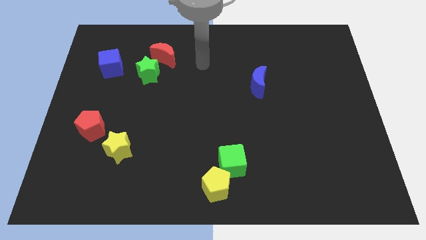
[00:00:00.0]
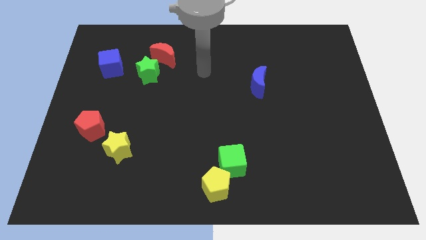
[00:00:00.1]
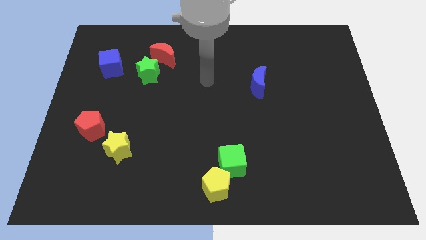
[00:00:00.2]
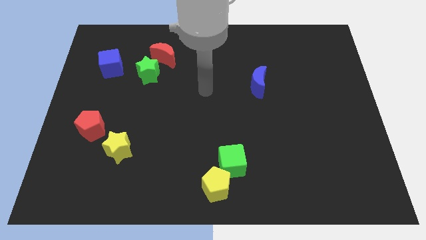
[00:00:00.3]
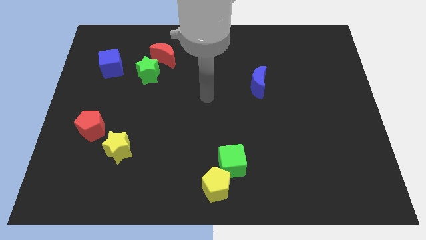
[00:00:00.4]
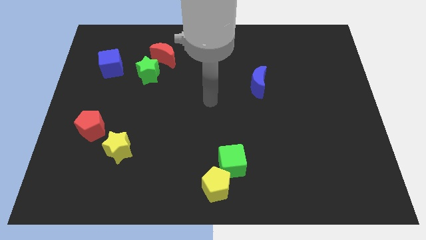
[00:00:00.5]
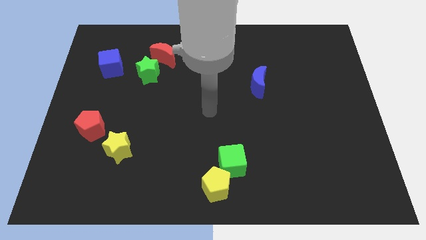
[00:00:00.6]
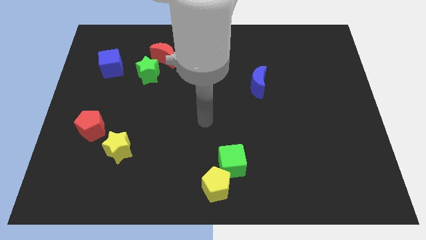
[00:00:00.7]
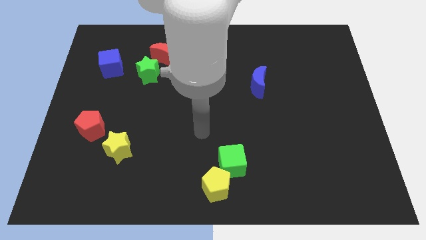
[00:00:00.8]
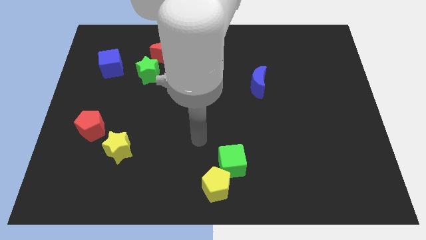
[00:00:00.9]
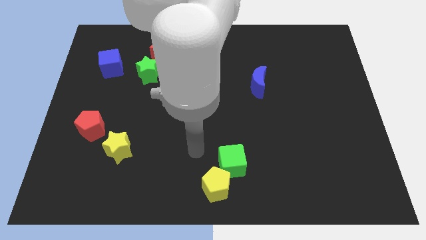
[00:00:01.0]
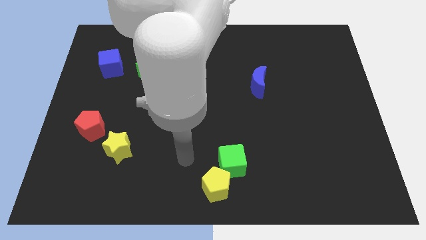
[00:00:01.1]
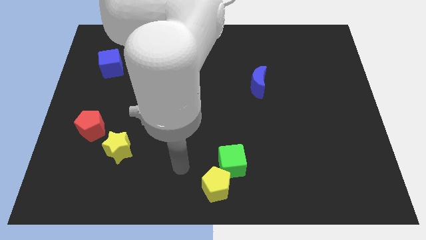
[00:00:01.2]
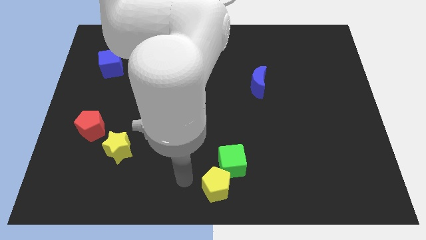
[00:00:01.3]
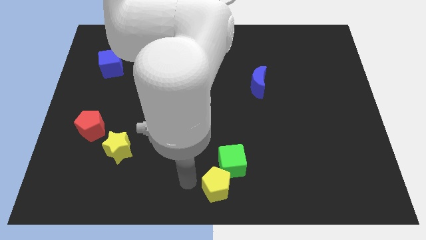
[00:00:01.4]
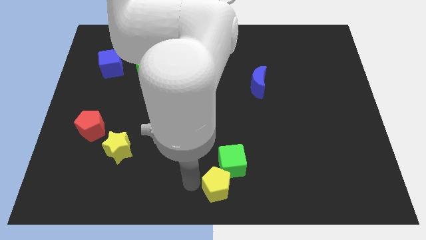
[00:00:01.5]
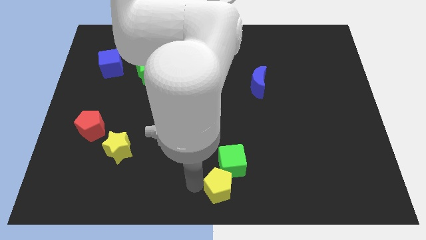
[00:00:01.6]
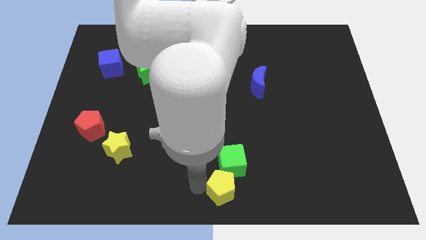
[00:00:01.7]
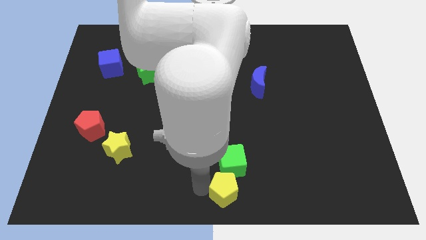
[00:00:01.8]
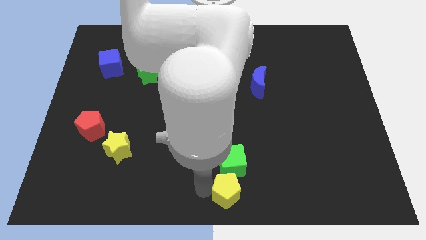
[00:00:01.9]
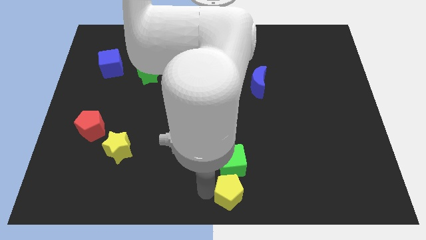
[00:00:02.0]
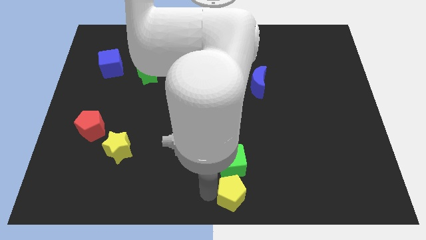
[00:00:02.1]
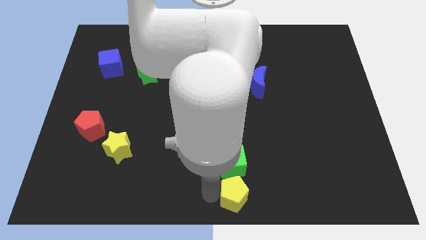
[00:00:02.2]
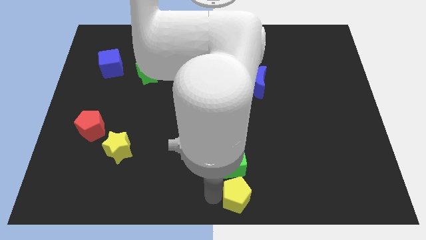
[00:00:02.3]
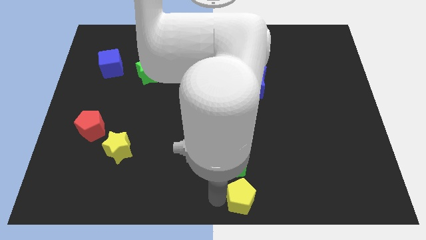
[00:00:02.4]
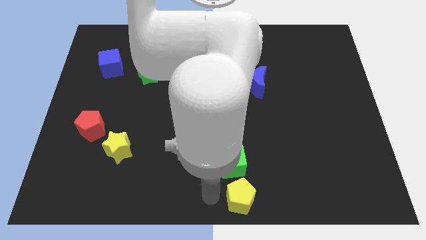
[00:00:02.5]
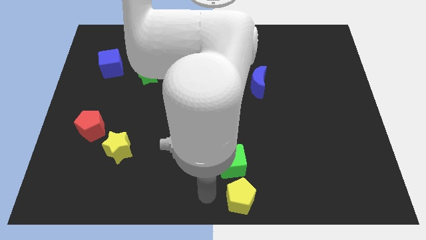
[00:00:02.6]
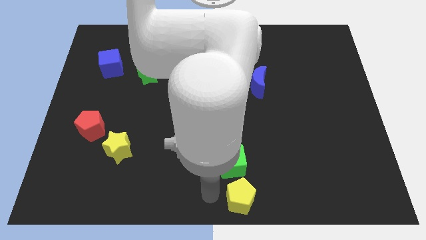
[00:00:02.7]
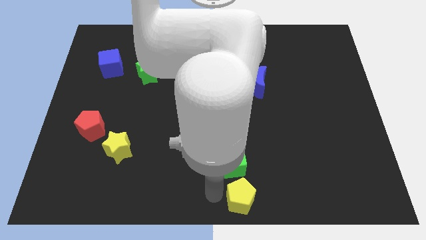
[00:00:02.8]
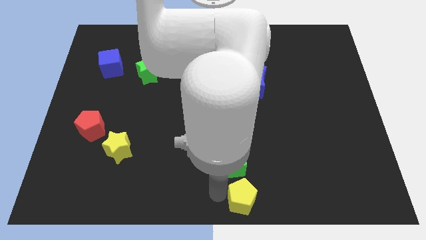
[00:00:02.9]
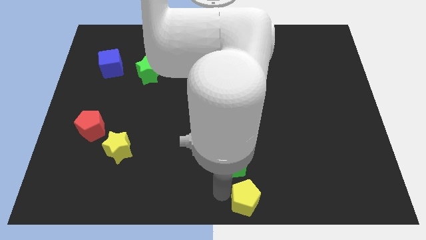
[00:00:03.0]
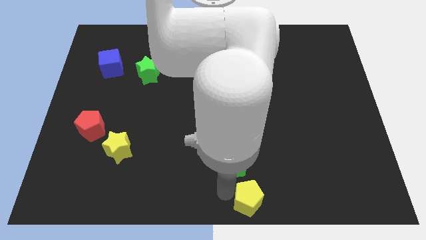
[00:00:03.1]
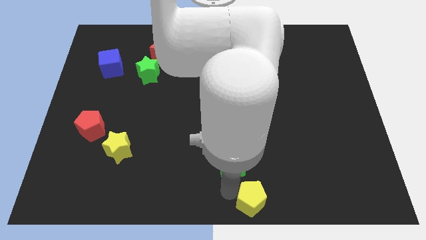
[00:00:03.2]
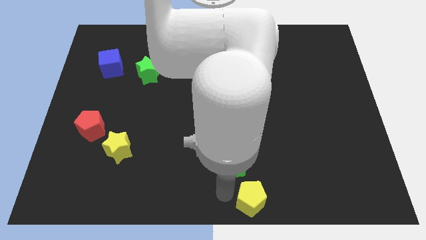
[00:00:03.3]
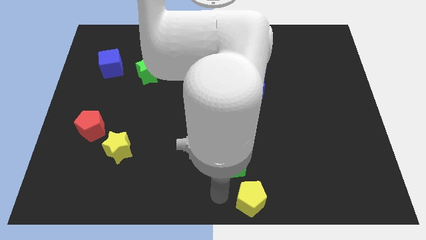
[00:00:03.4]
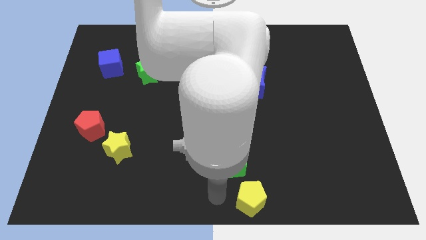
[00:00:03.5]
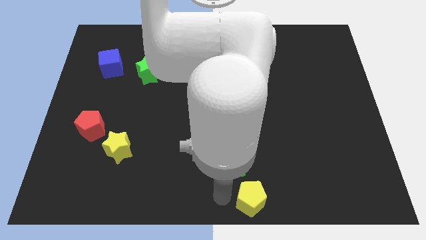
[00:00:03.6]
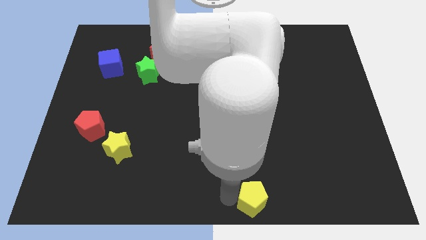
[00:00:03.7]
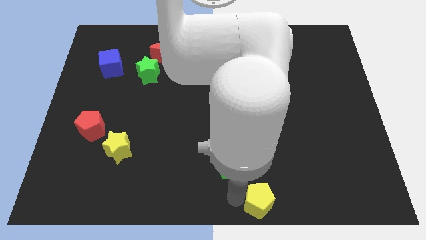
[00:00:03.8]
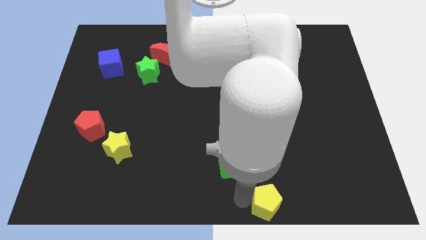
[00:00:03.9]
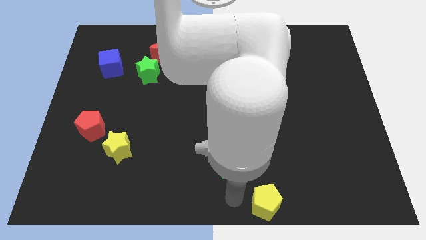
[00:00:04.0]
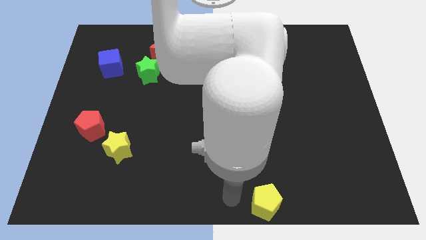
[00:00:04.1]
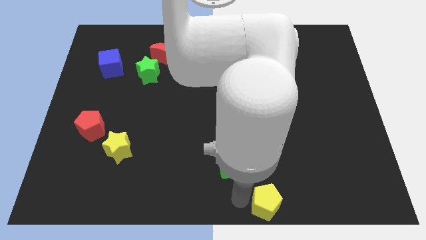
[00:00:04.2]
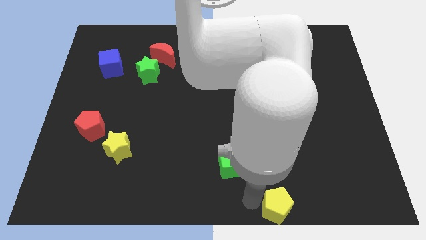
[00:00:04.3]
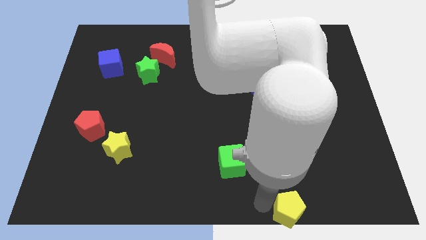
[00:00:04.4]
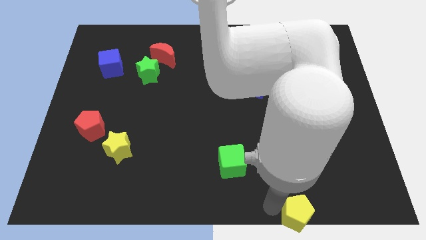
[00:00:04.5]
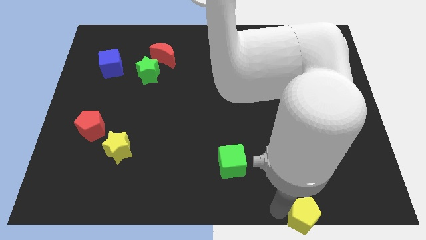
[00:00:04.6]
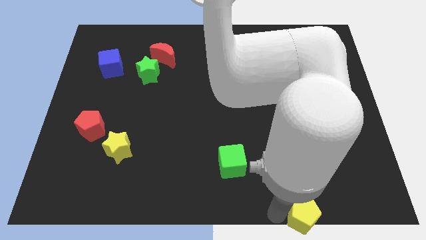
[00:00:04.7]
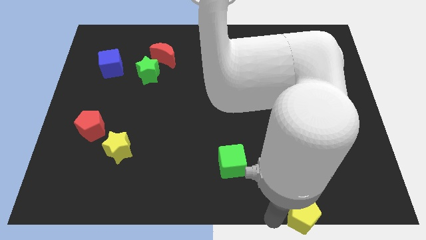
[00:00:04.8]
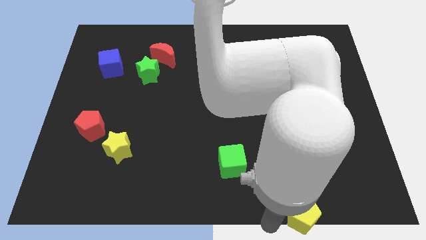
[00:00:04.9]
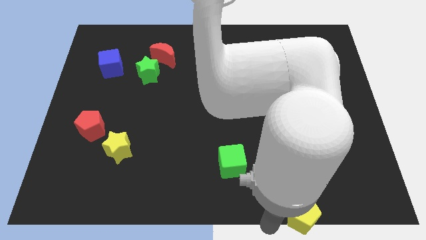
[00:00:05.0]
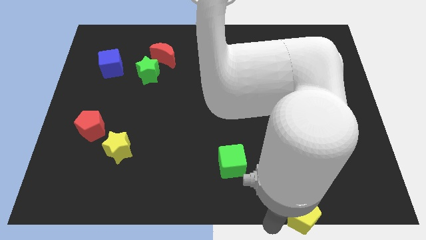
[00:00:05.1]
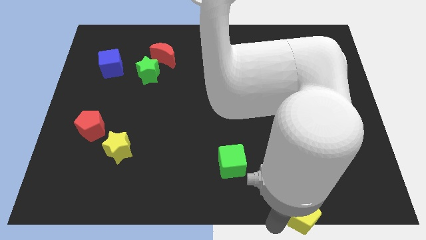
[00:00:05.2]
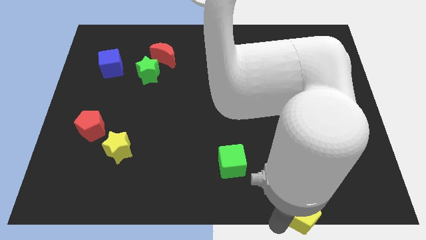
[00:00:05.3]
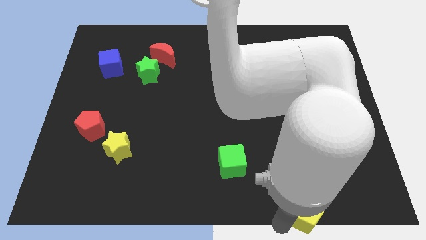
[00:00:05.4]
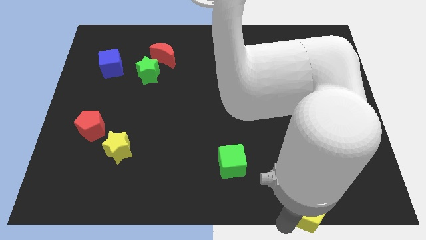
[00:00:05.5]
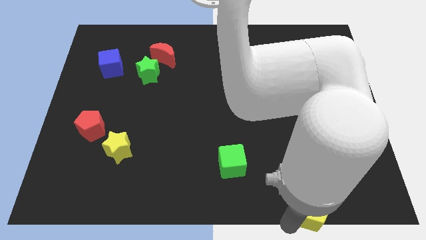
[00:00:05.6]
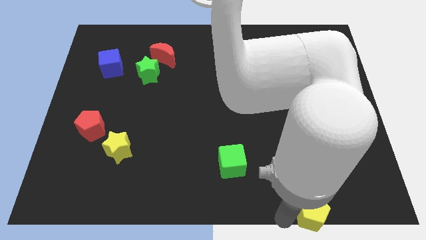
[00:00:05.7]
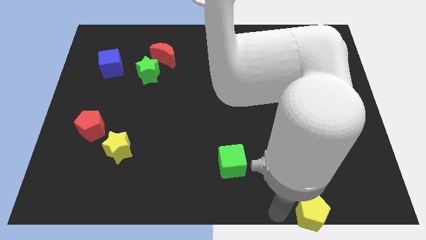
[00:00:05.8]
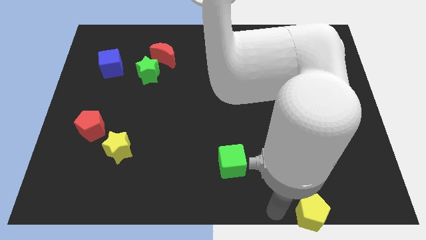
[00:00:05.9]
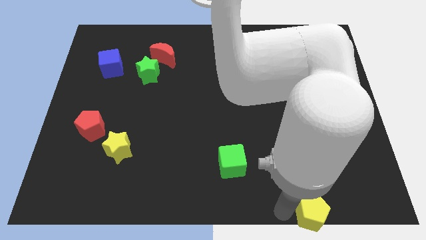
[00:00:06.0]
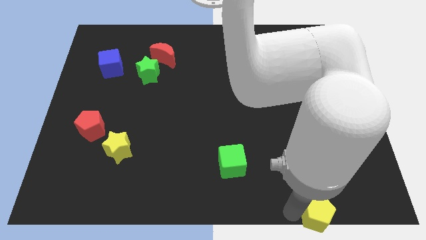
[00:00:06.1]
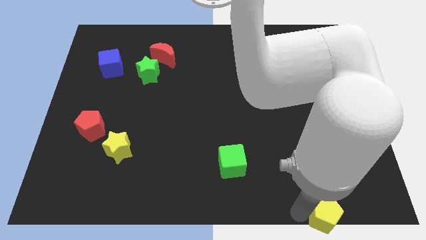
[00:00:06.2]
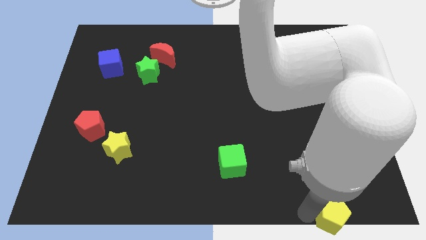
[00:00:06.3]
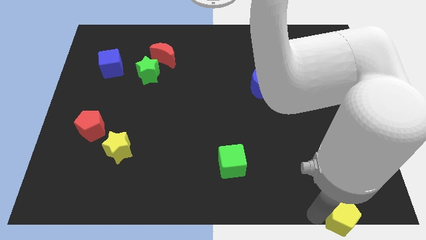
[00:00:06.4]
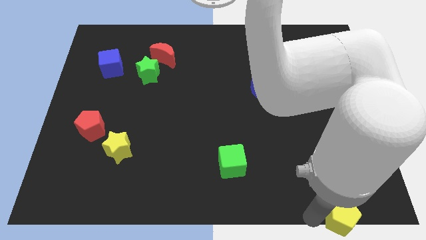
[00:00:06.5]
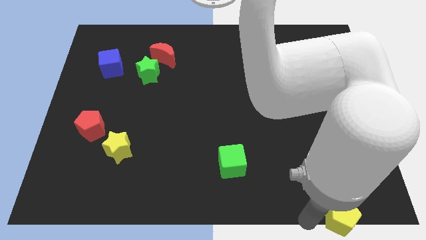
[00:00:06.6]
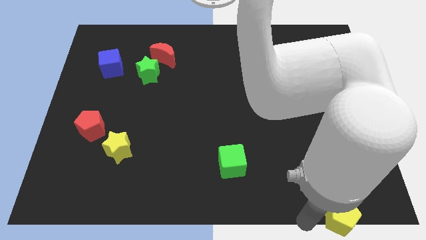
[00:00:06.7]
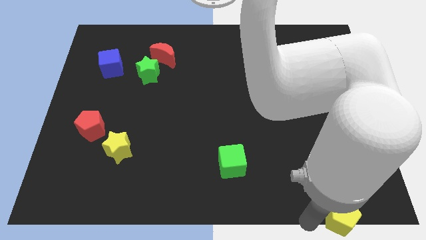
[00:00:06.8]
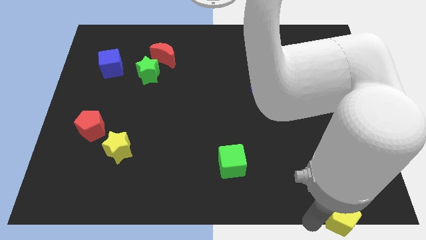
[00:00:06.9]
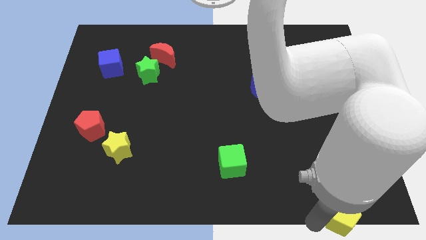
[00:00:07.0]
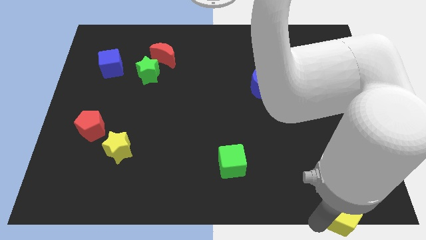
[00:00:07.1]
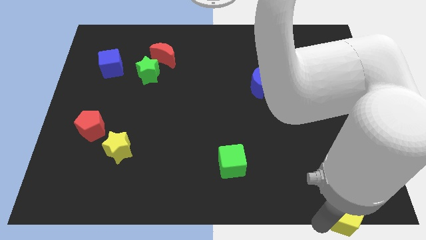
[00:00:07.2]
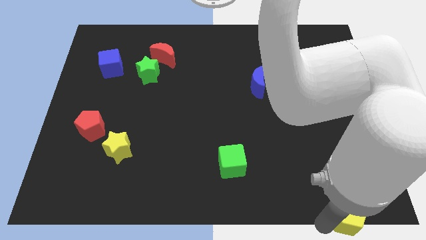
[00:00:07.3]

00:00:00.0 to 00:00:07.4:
put the yellow pentagon to the lower right corner
